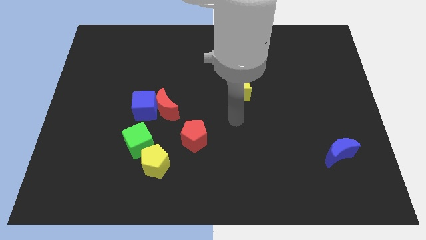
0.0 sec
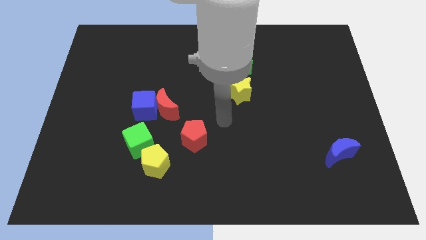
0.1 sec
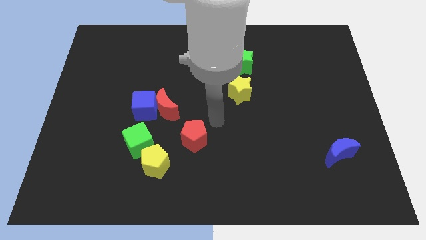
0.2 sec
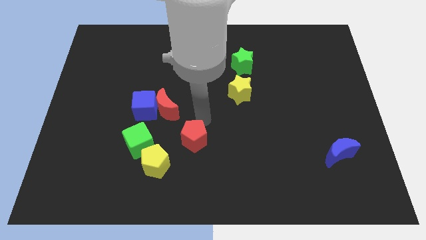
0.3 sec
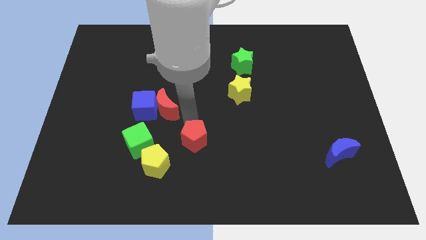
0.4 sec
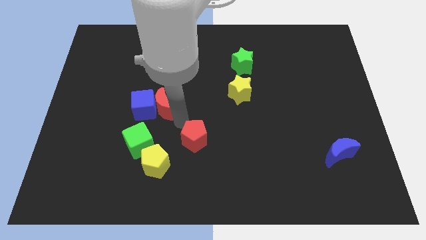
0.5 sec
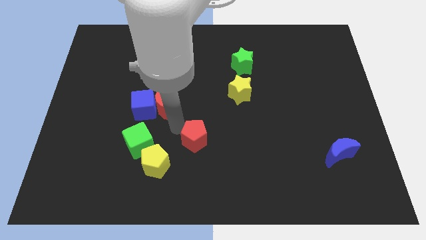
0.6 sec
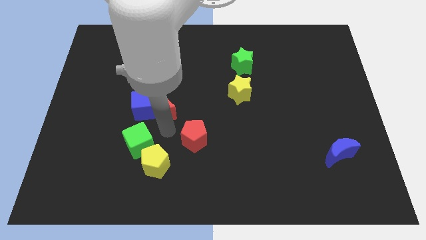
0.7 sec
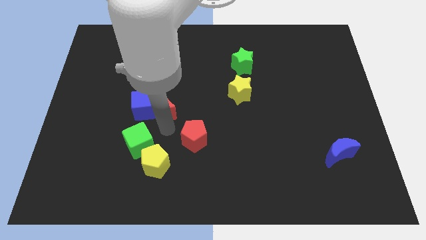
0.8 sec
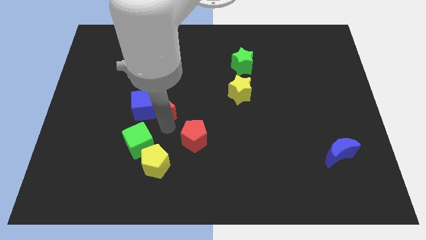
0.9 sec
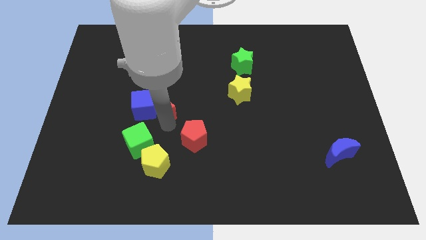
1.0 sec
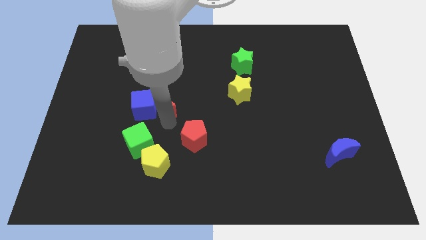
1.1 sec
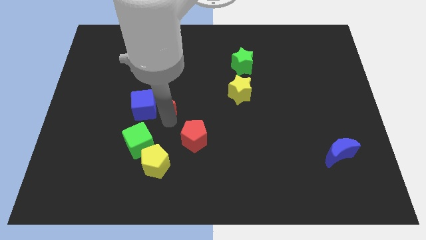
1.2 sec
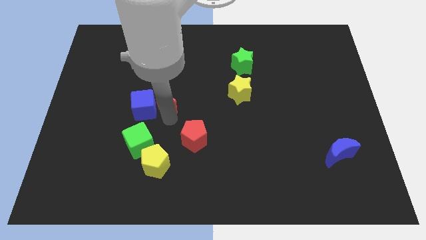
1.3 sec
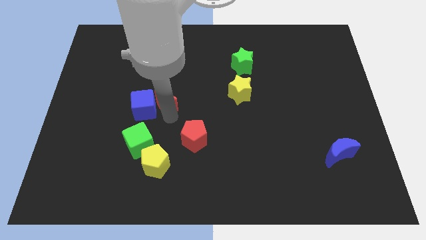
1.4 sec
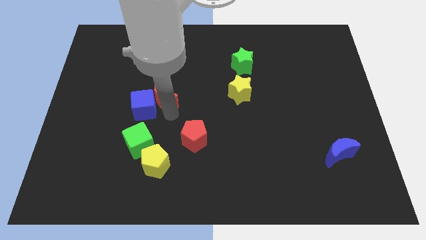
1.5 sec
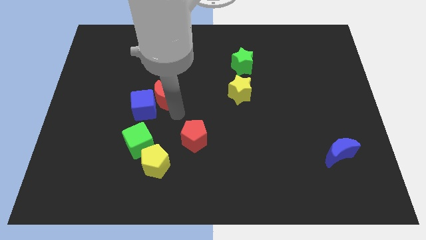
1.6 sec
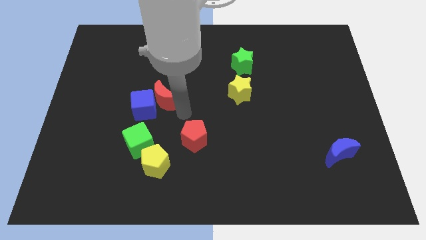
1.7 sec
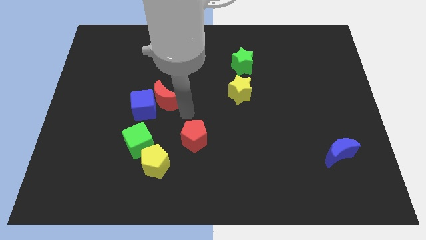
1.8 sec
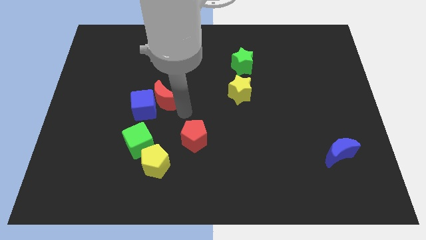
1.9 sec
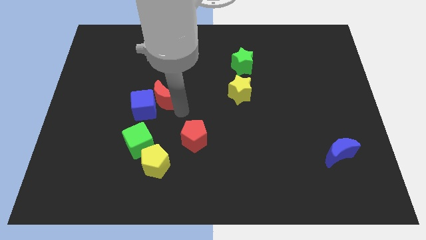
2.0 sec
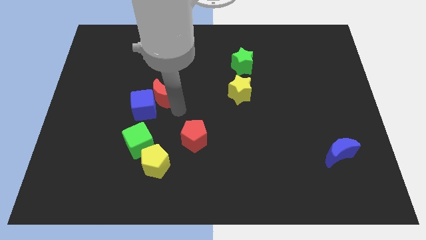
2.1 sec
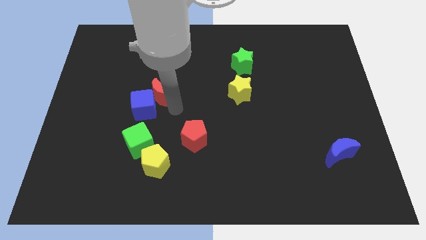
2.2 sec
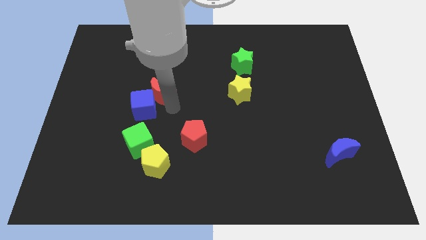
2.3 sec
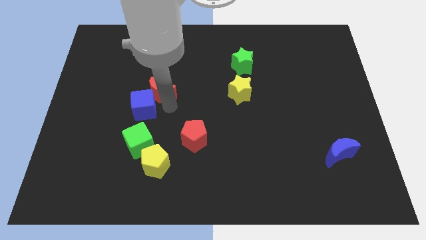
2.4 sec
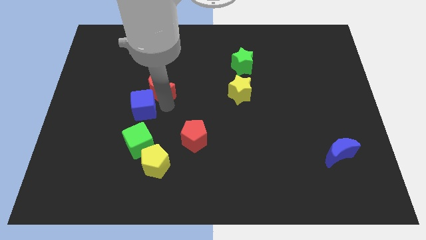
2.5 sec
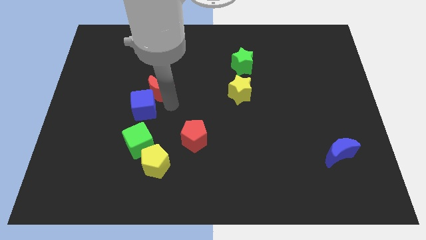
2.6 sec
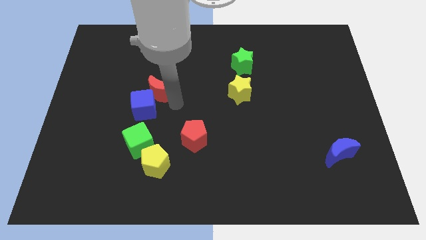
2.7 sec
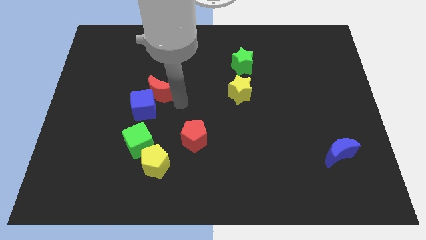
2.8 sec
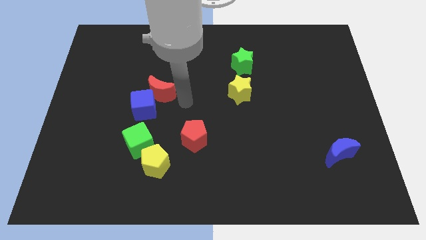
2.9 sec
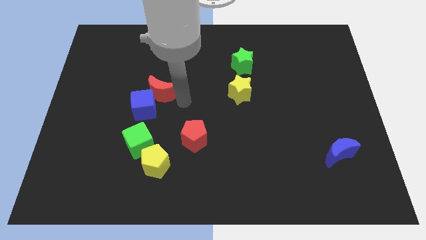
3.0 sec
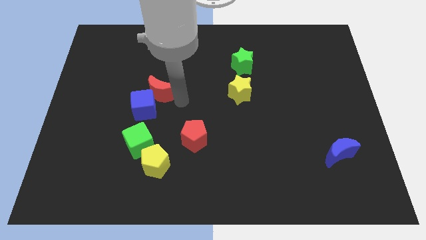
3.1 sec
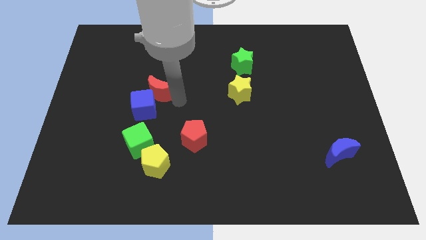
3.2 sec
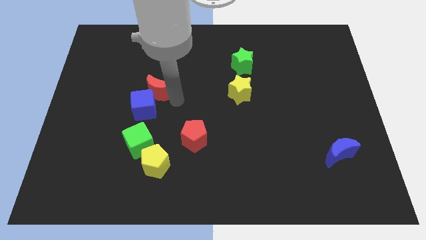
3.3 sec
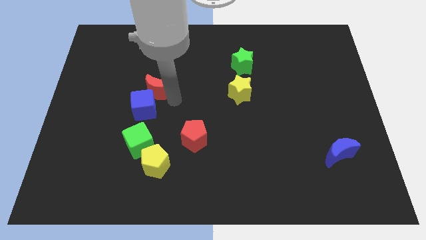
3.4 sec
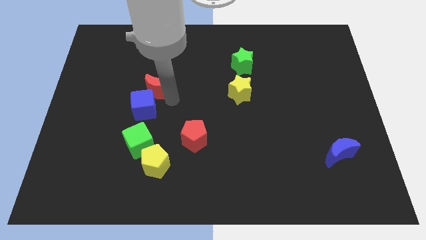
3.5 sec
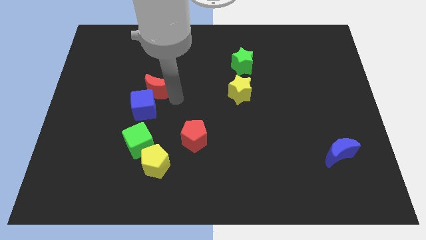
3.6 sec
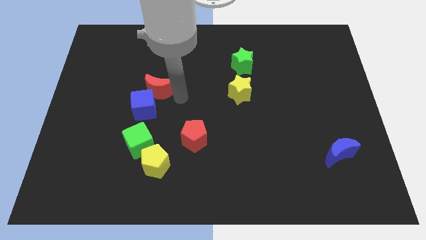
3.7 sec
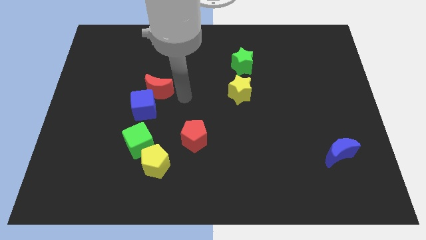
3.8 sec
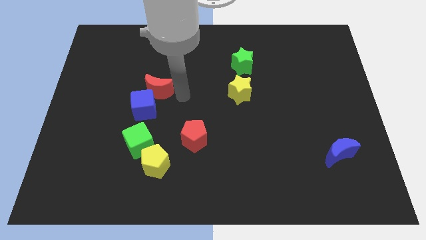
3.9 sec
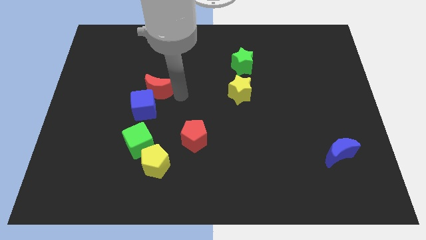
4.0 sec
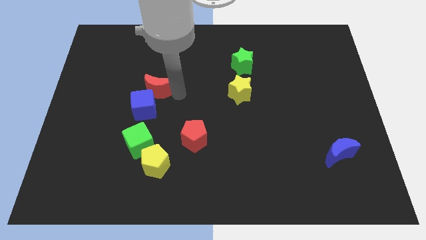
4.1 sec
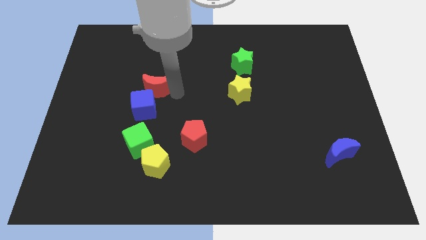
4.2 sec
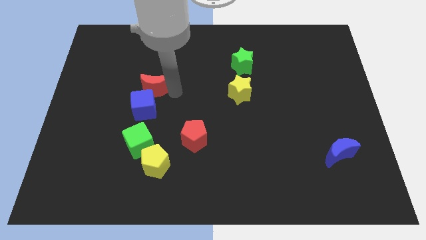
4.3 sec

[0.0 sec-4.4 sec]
slide the red moon slightly diagonally upwards and to the left

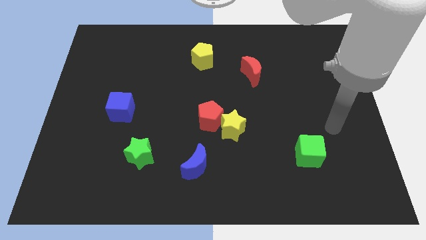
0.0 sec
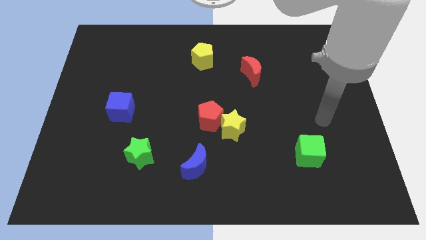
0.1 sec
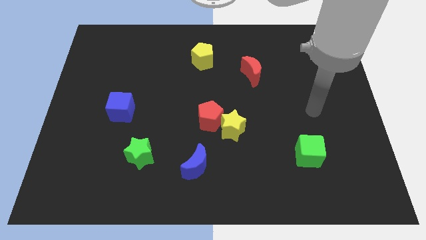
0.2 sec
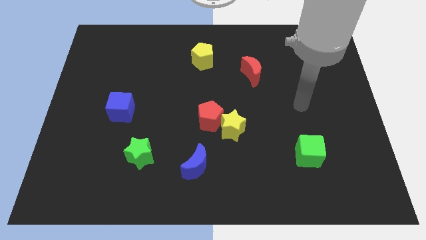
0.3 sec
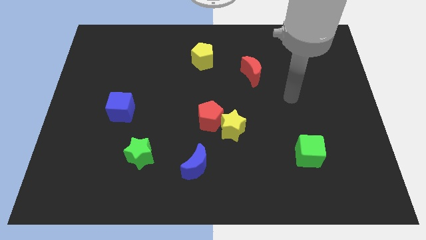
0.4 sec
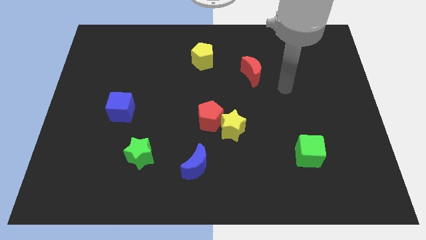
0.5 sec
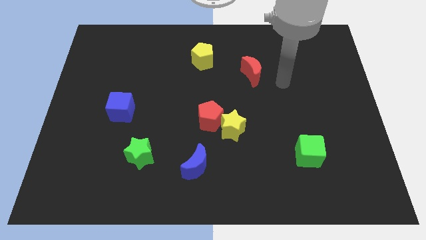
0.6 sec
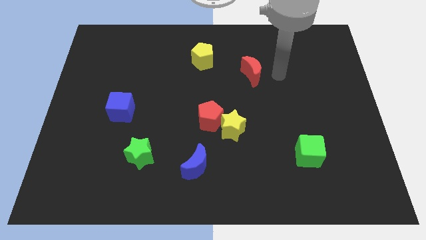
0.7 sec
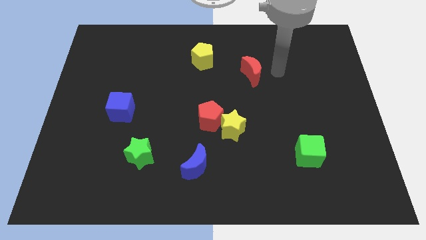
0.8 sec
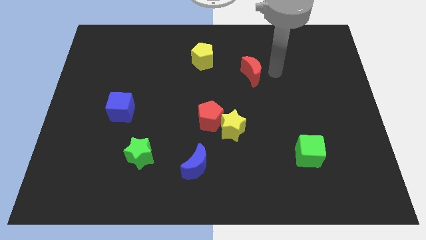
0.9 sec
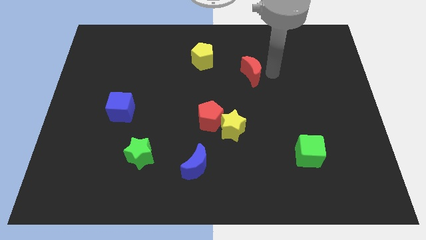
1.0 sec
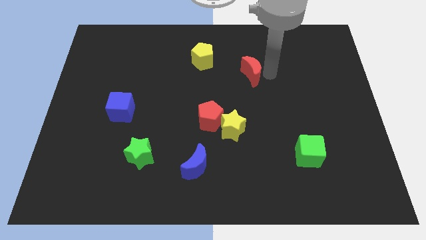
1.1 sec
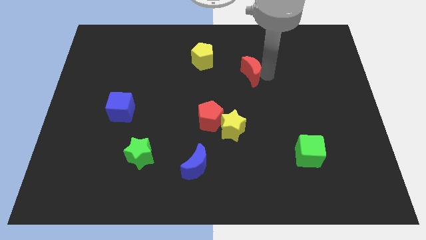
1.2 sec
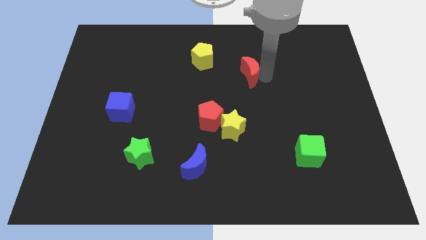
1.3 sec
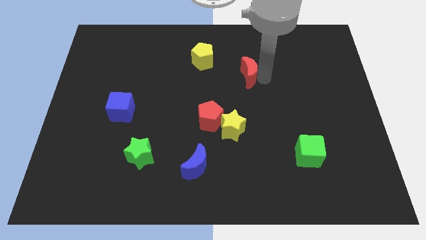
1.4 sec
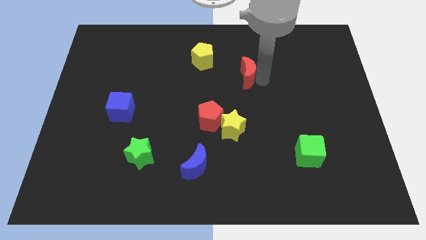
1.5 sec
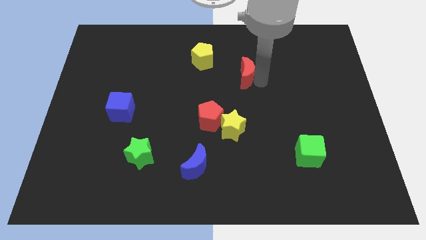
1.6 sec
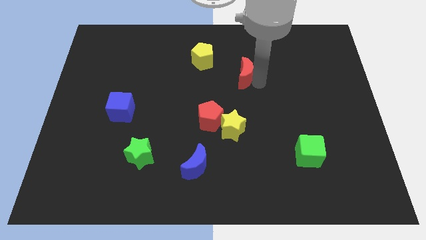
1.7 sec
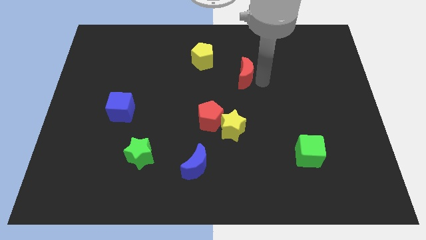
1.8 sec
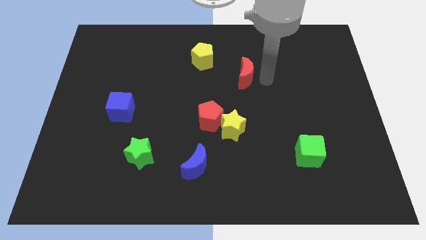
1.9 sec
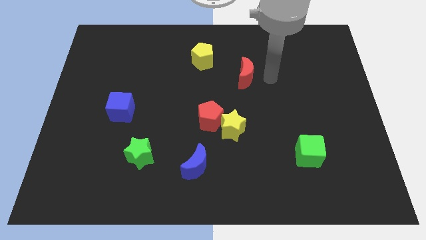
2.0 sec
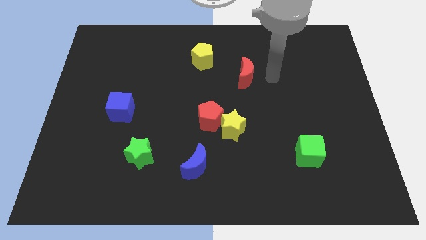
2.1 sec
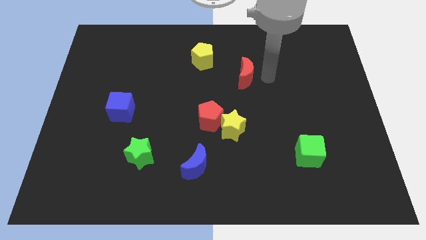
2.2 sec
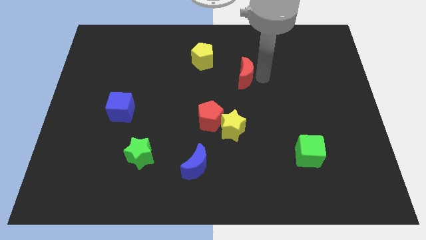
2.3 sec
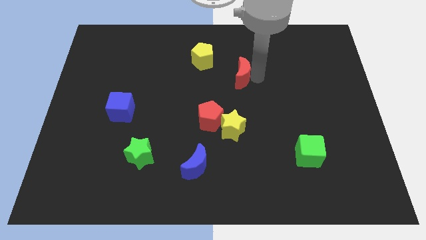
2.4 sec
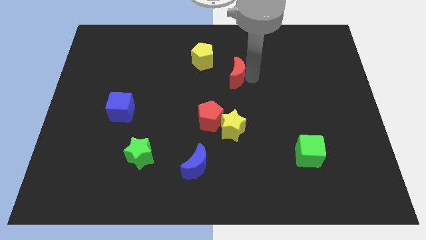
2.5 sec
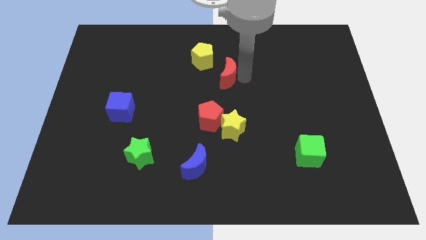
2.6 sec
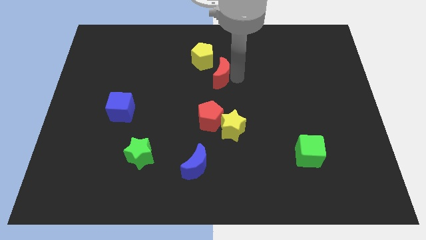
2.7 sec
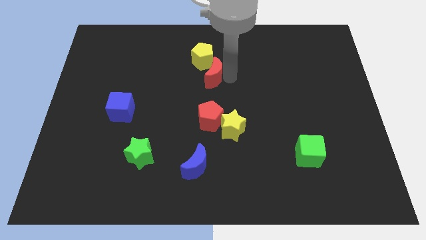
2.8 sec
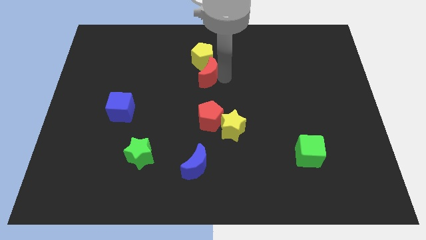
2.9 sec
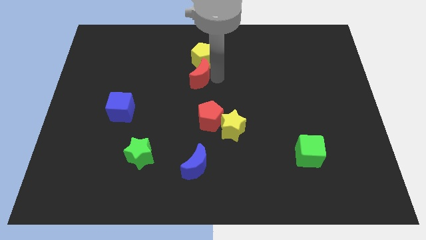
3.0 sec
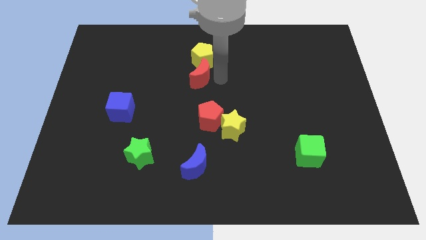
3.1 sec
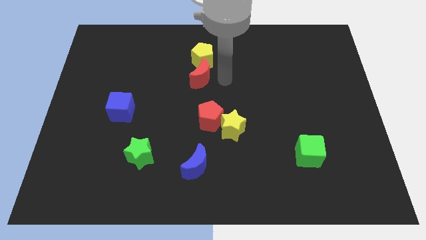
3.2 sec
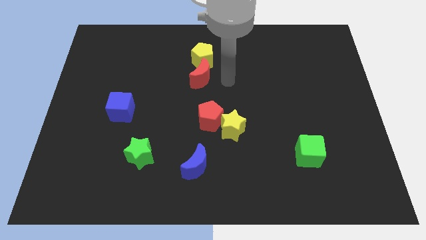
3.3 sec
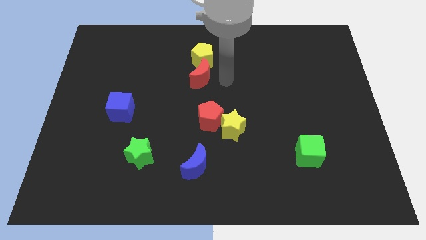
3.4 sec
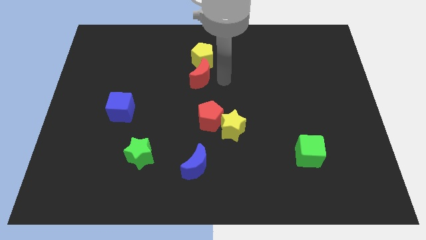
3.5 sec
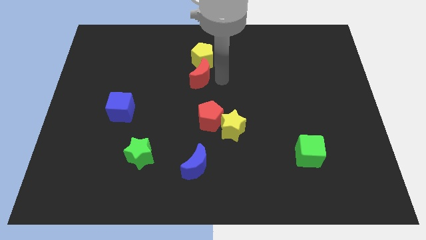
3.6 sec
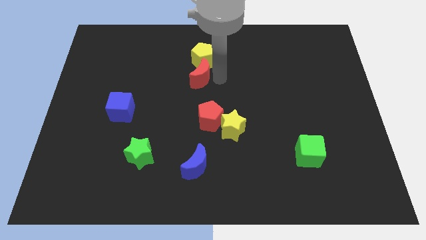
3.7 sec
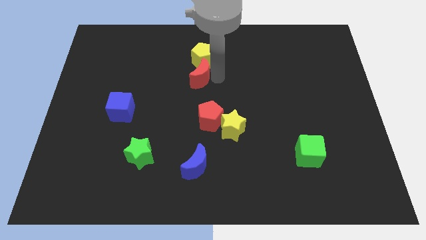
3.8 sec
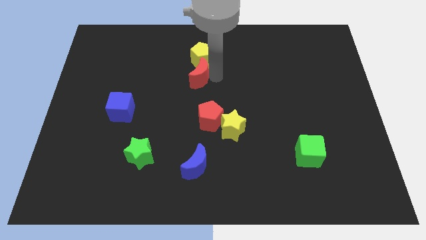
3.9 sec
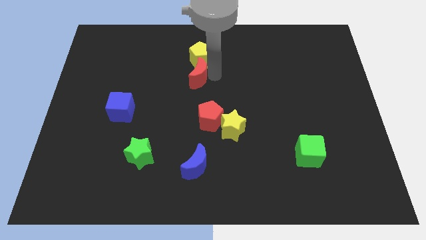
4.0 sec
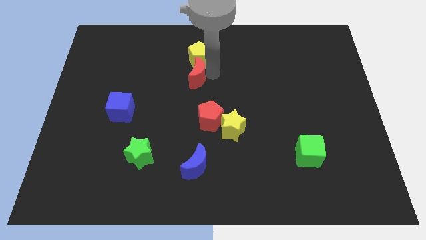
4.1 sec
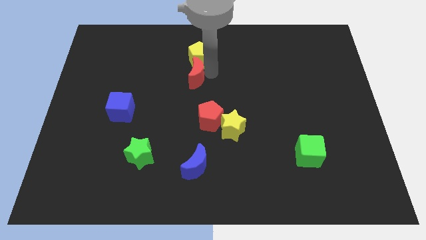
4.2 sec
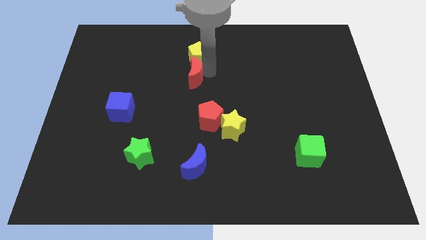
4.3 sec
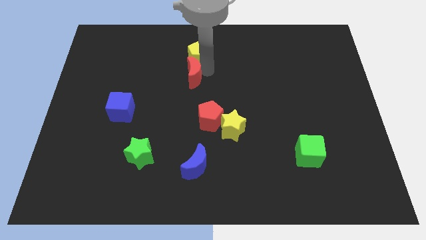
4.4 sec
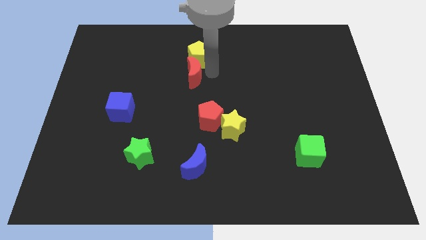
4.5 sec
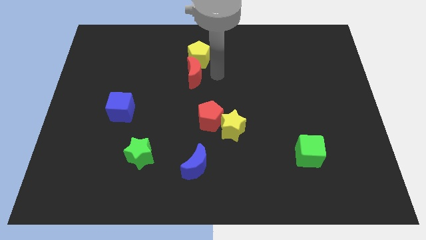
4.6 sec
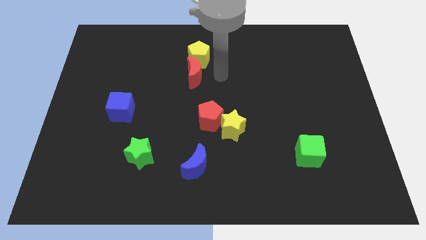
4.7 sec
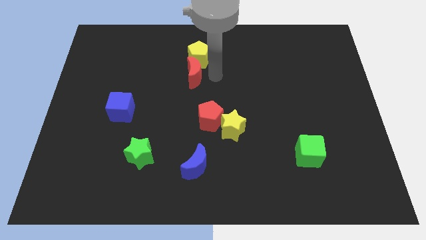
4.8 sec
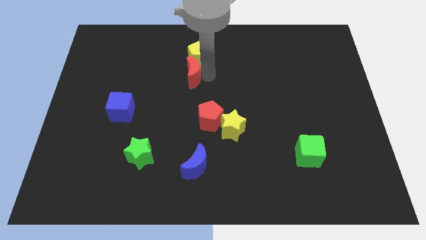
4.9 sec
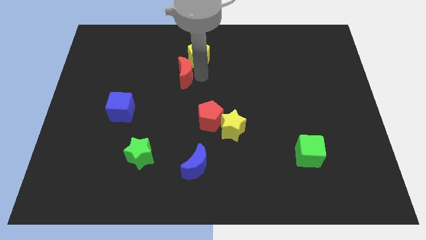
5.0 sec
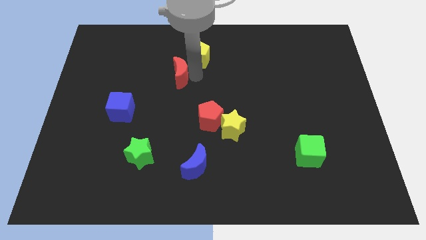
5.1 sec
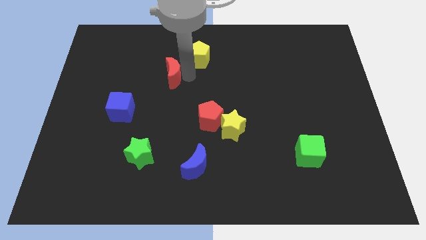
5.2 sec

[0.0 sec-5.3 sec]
slide the red moon to the left
